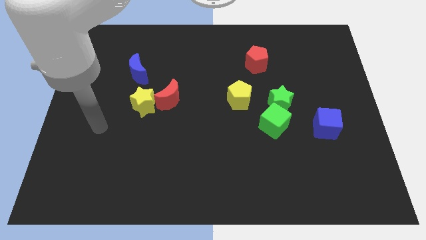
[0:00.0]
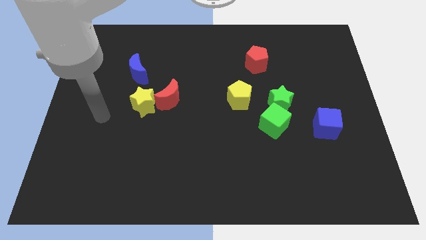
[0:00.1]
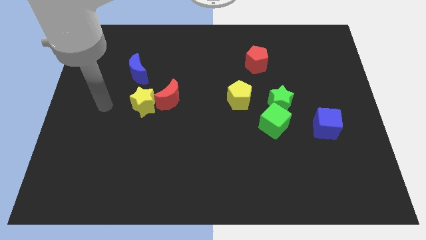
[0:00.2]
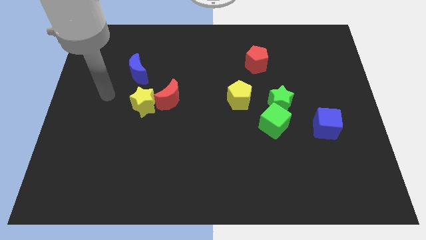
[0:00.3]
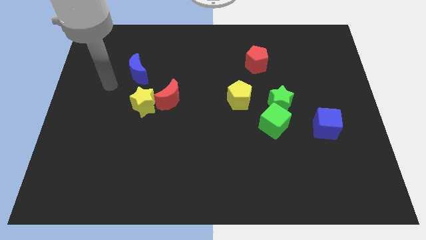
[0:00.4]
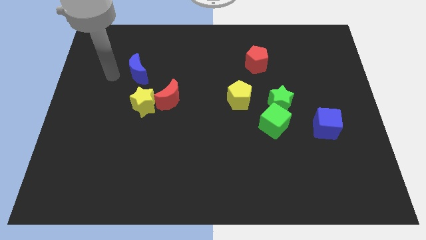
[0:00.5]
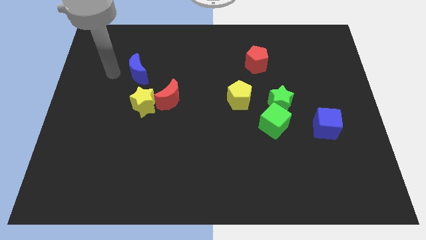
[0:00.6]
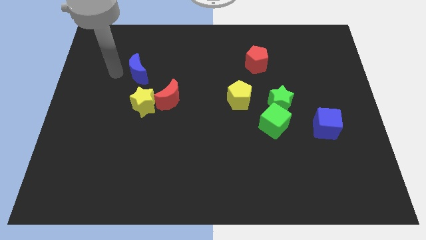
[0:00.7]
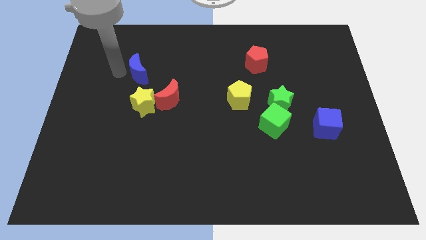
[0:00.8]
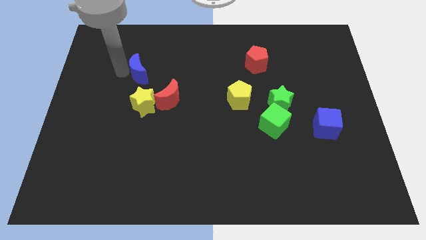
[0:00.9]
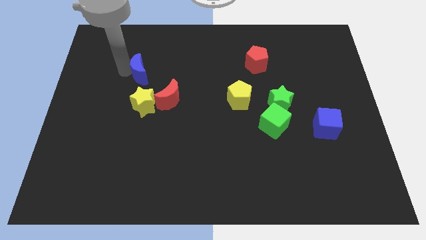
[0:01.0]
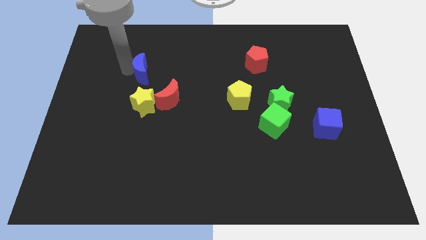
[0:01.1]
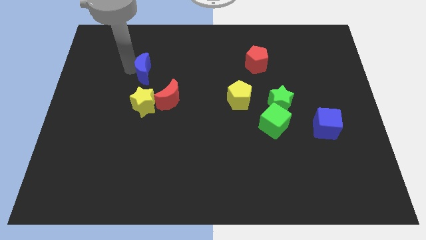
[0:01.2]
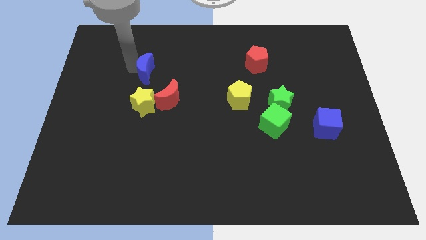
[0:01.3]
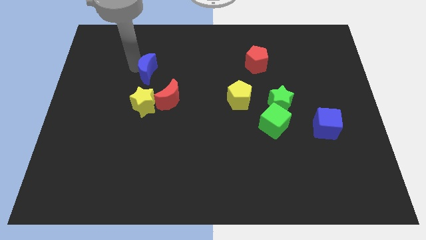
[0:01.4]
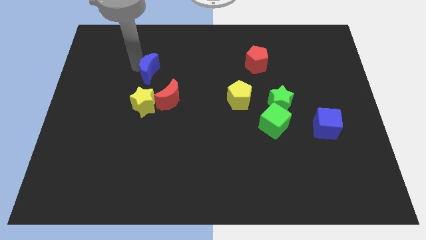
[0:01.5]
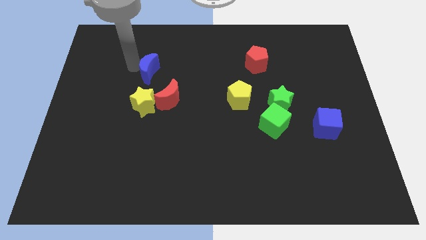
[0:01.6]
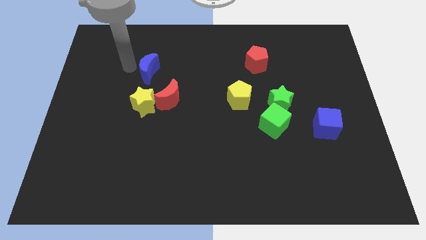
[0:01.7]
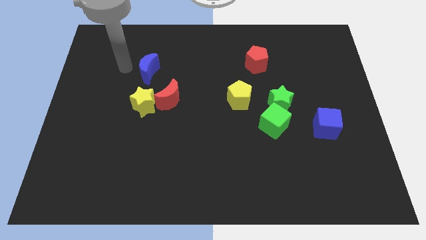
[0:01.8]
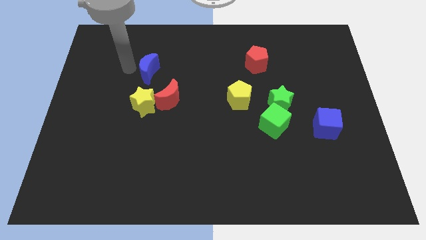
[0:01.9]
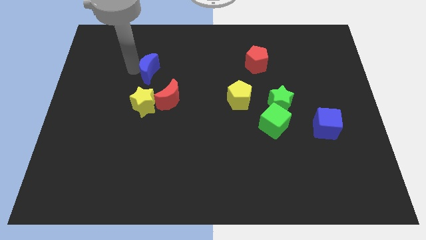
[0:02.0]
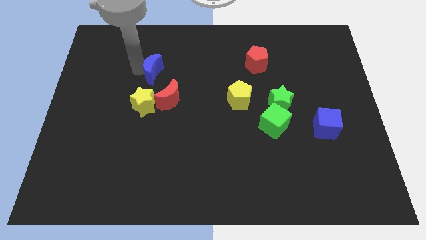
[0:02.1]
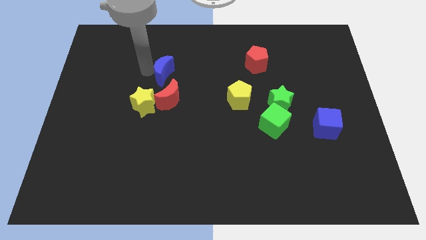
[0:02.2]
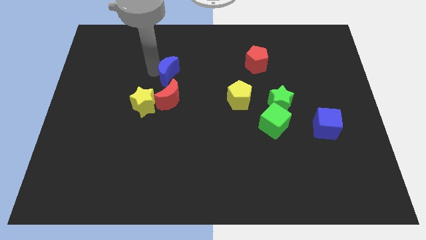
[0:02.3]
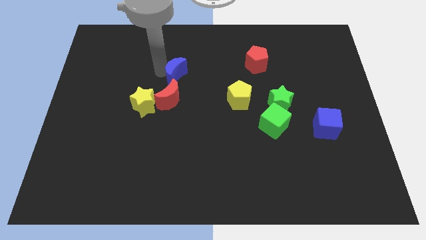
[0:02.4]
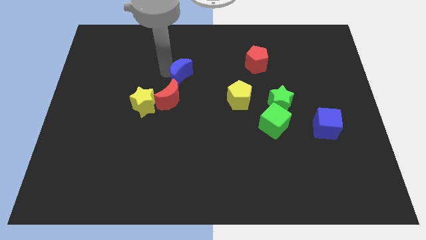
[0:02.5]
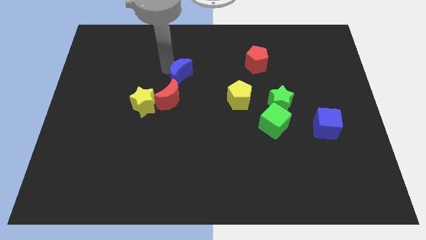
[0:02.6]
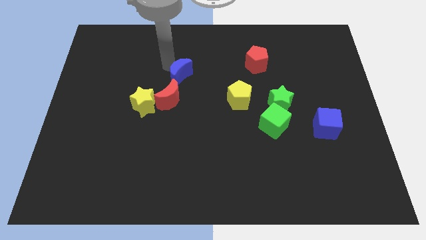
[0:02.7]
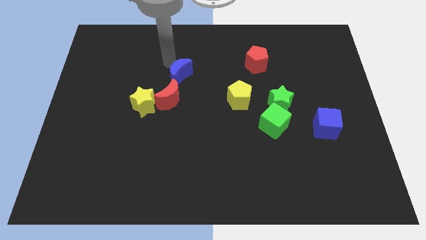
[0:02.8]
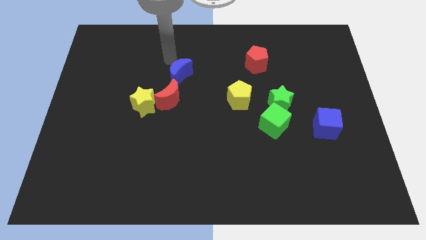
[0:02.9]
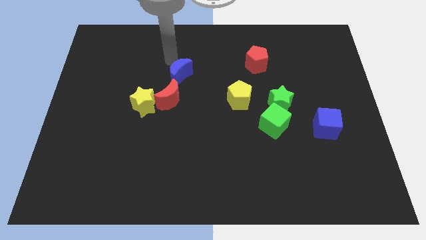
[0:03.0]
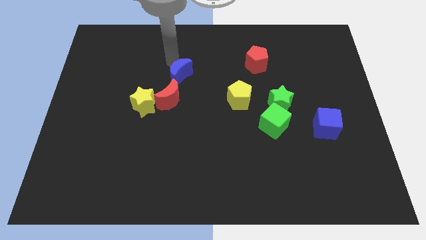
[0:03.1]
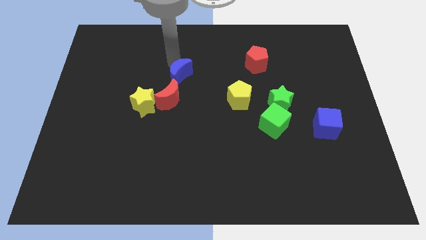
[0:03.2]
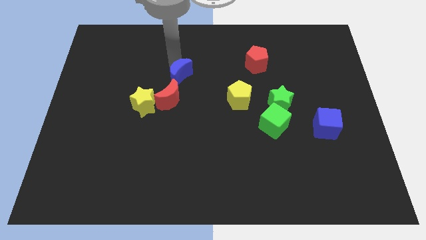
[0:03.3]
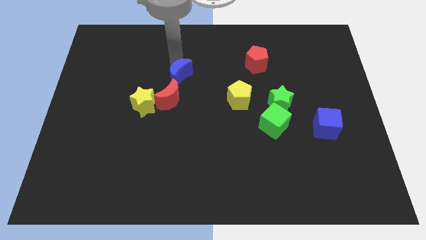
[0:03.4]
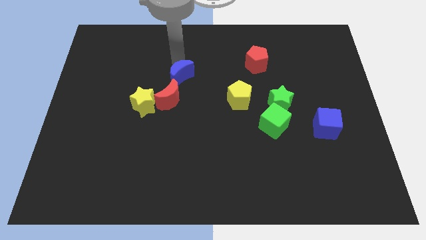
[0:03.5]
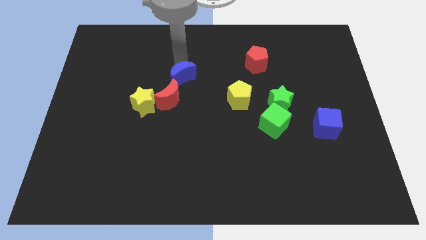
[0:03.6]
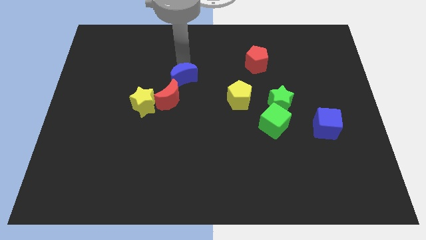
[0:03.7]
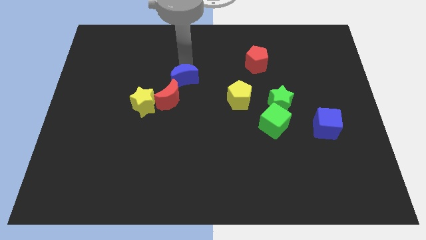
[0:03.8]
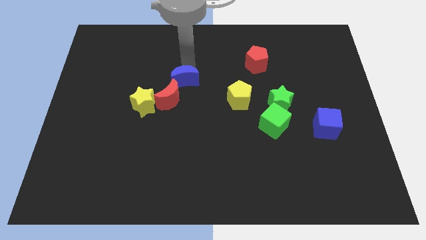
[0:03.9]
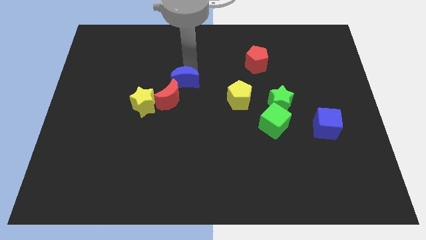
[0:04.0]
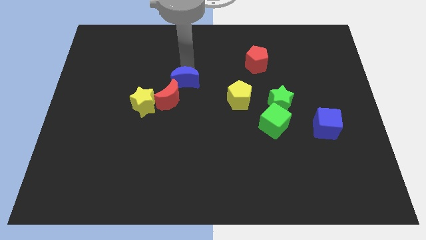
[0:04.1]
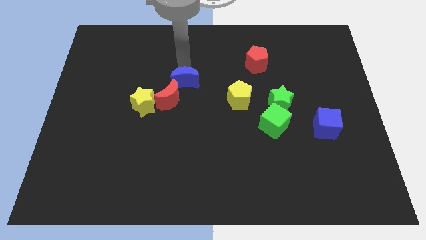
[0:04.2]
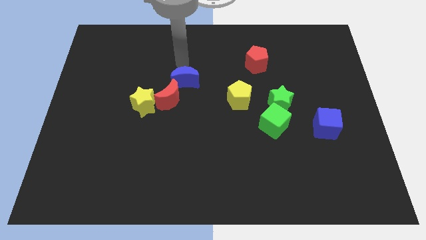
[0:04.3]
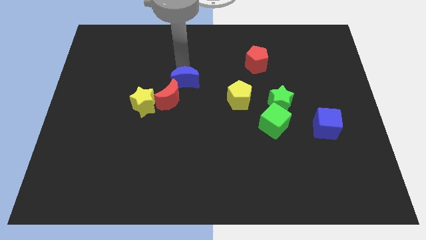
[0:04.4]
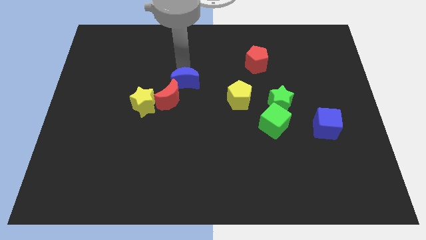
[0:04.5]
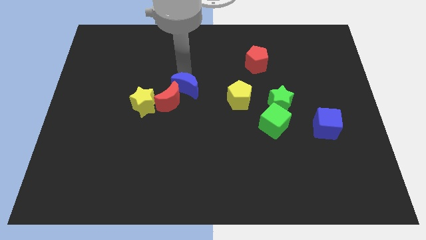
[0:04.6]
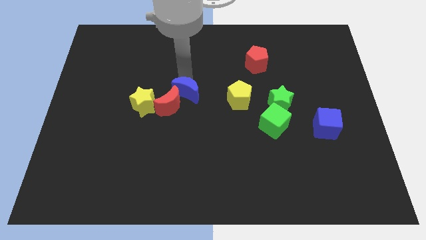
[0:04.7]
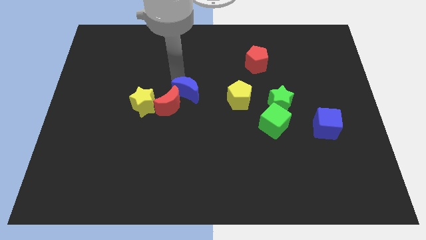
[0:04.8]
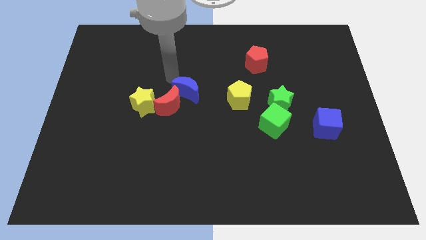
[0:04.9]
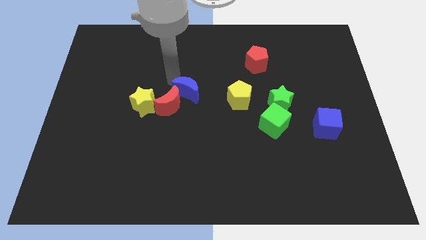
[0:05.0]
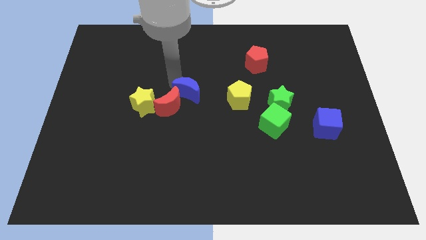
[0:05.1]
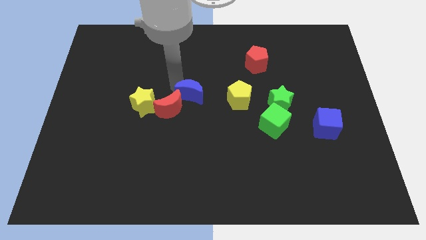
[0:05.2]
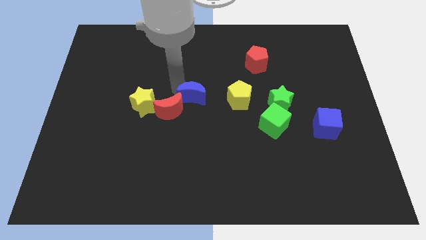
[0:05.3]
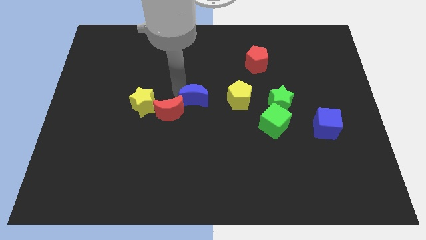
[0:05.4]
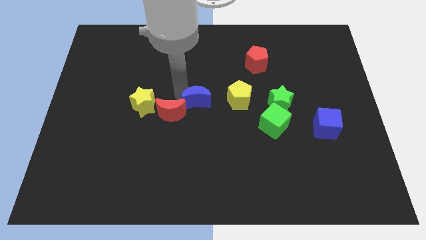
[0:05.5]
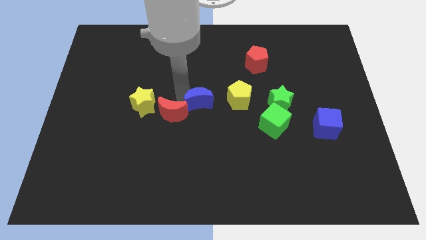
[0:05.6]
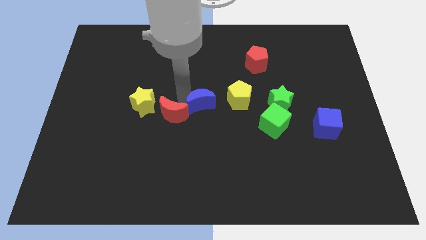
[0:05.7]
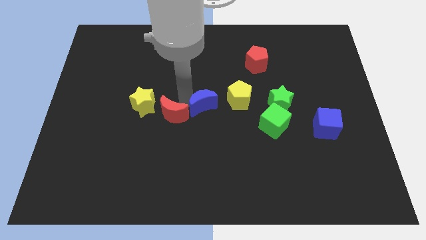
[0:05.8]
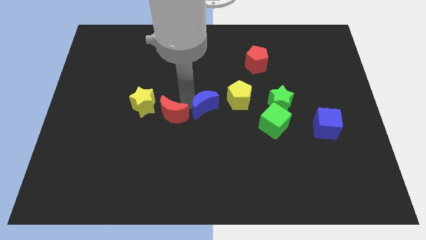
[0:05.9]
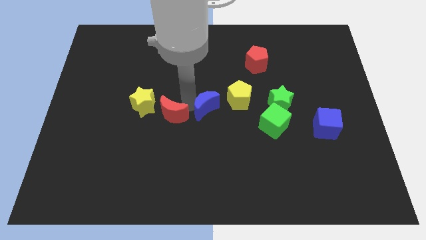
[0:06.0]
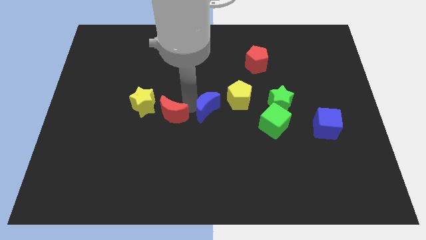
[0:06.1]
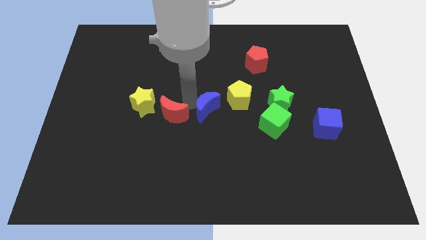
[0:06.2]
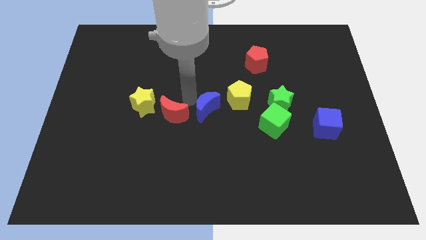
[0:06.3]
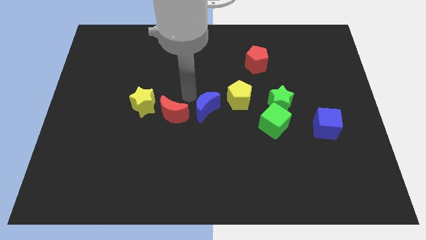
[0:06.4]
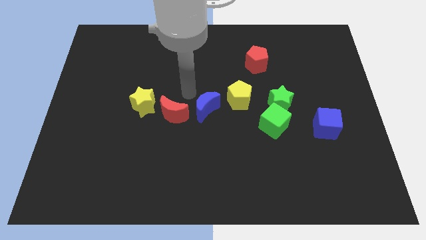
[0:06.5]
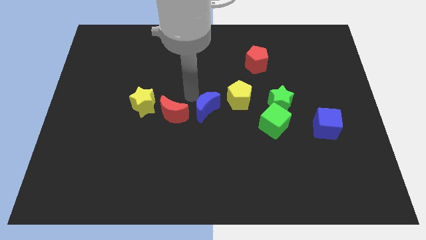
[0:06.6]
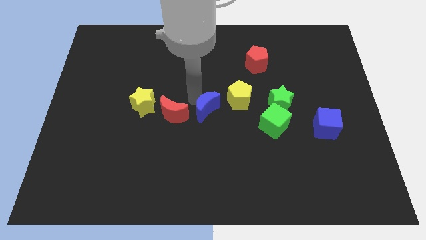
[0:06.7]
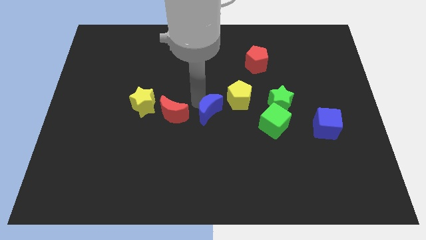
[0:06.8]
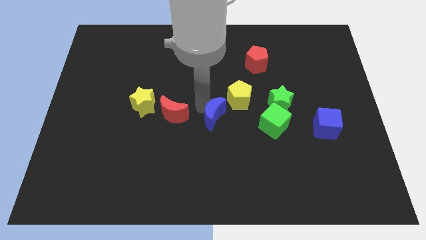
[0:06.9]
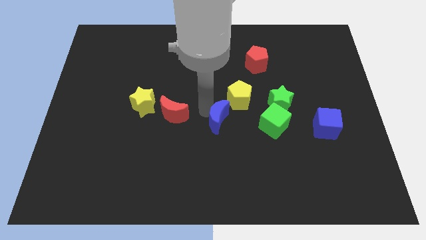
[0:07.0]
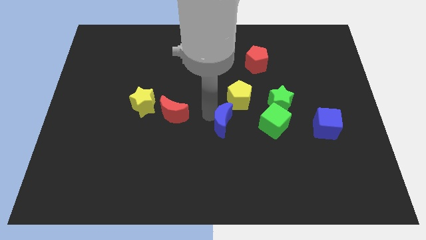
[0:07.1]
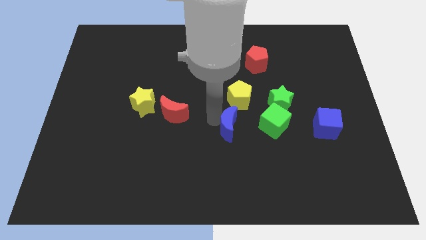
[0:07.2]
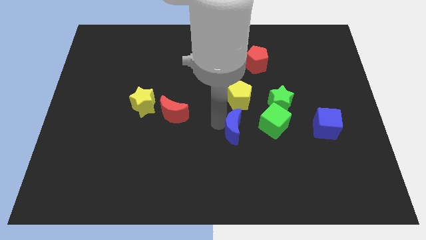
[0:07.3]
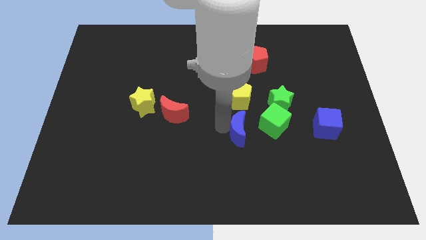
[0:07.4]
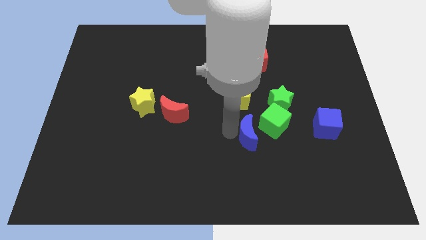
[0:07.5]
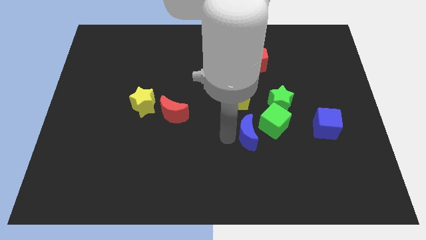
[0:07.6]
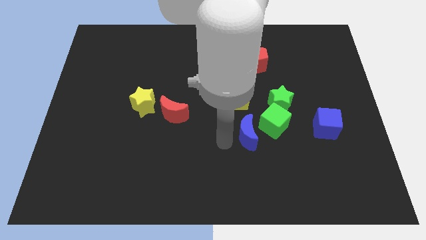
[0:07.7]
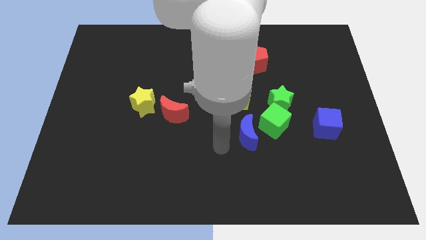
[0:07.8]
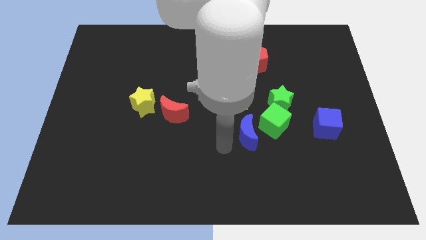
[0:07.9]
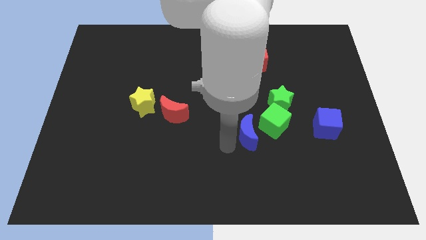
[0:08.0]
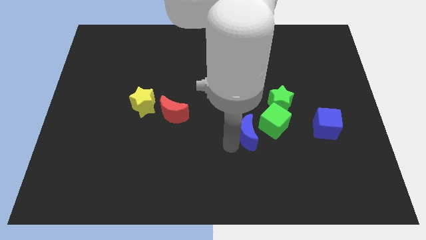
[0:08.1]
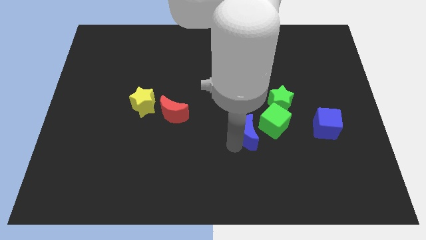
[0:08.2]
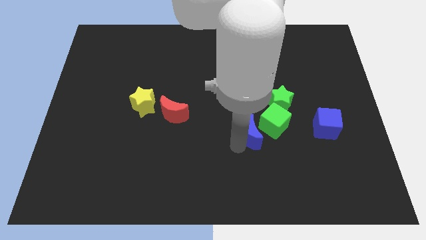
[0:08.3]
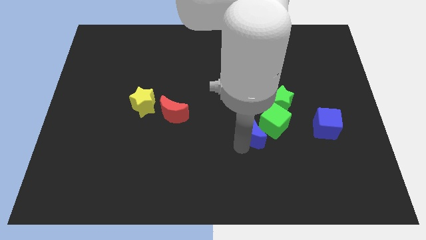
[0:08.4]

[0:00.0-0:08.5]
push the blue moon close to the green cube
